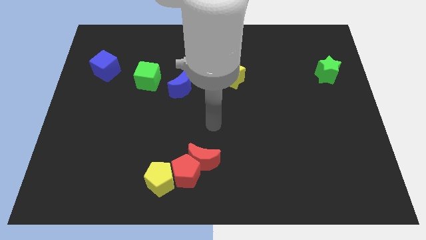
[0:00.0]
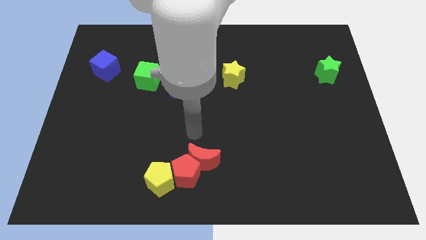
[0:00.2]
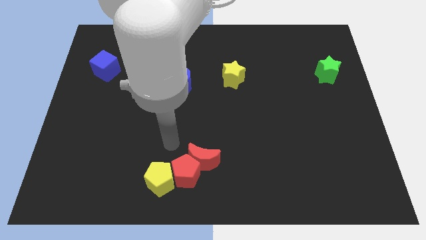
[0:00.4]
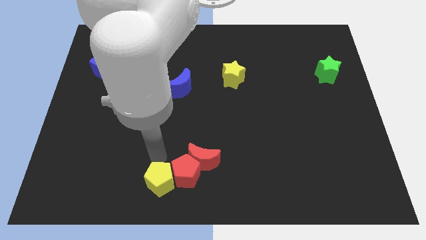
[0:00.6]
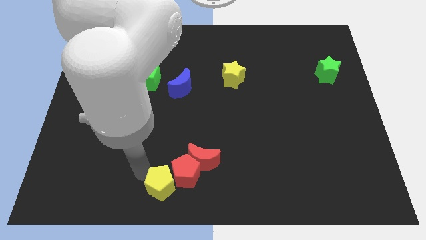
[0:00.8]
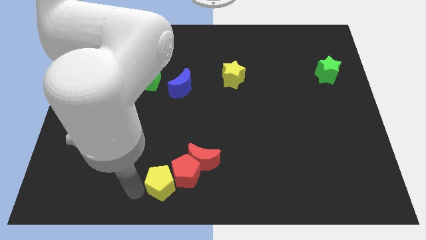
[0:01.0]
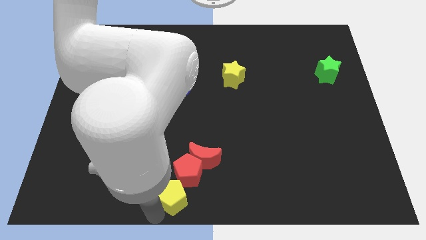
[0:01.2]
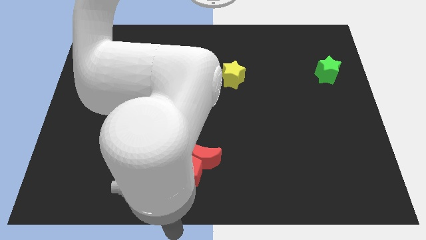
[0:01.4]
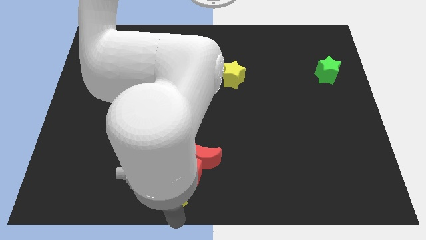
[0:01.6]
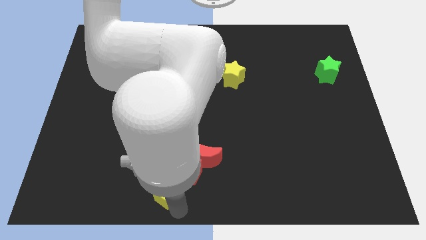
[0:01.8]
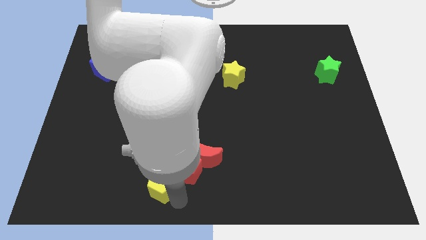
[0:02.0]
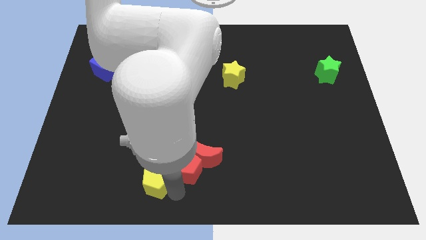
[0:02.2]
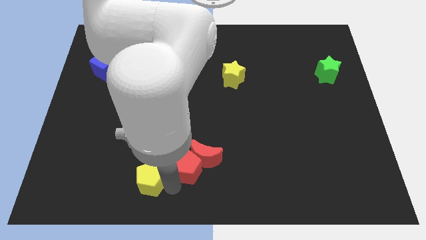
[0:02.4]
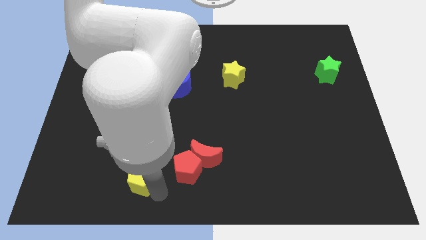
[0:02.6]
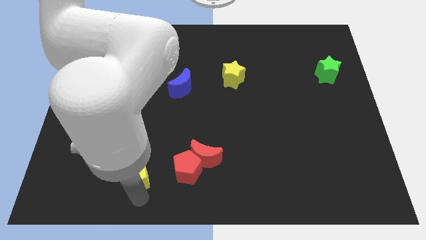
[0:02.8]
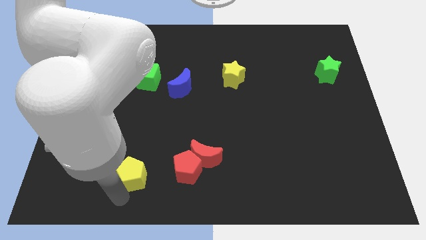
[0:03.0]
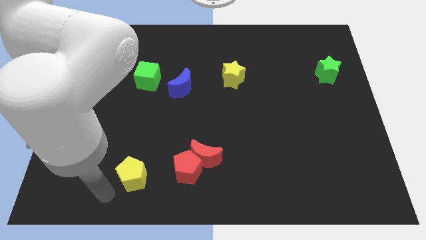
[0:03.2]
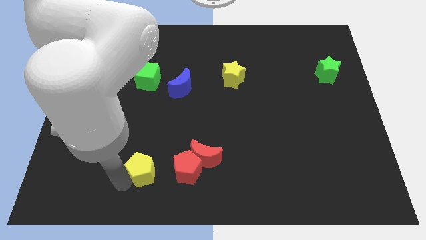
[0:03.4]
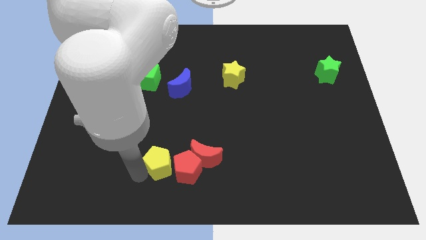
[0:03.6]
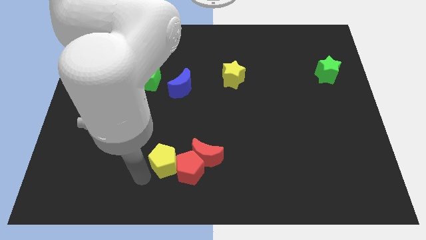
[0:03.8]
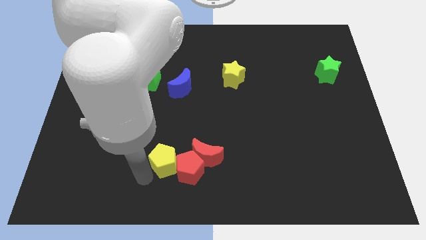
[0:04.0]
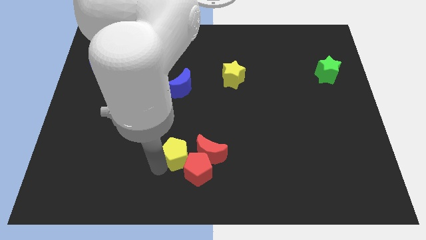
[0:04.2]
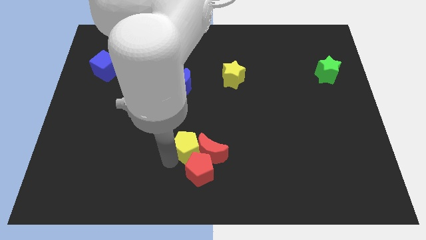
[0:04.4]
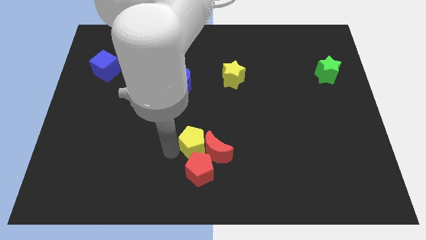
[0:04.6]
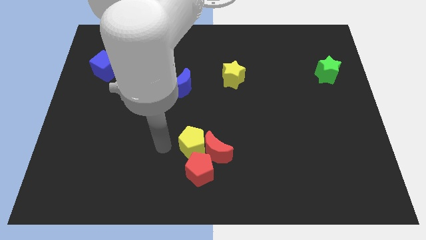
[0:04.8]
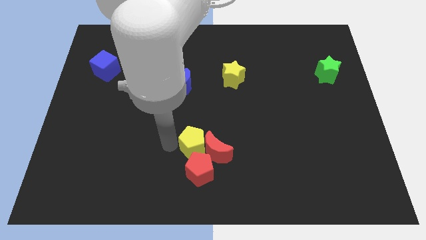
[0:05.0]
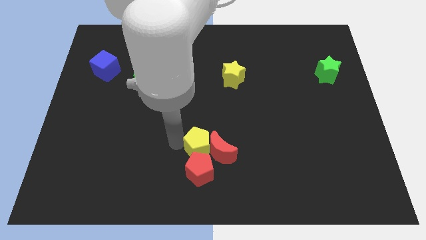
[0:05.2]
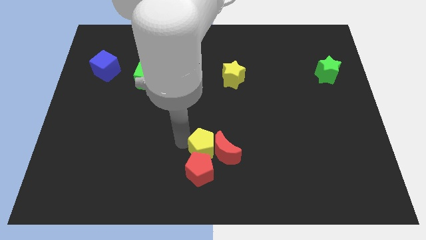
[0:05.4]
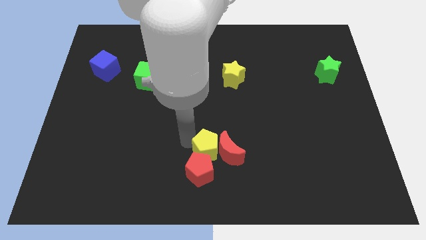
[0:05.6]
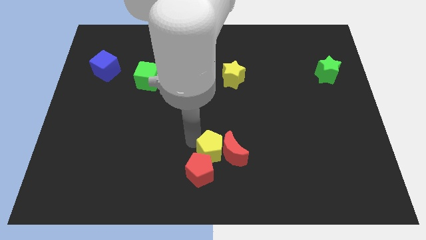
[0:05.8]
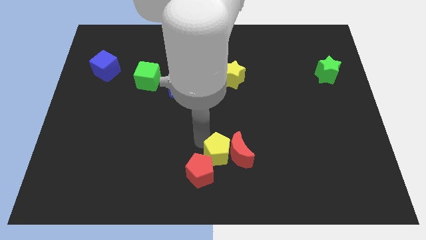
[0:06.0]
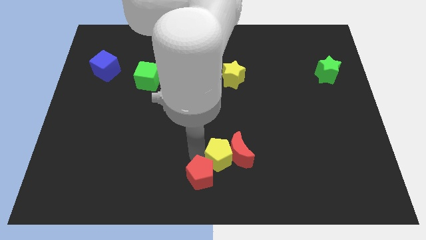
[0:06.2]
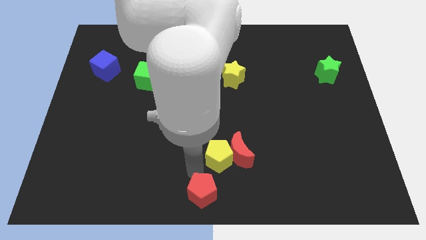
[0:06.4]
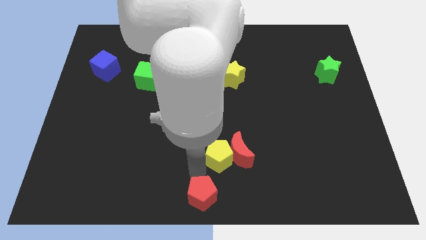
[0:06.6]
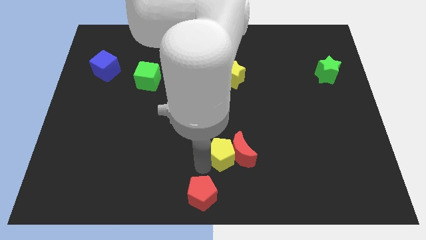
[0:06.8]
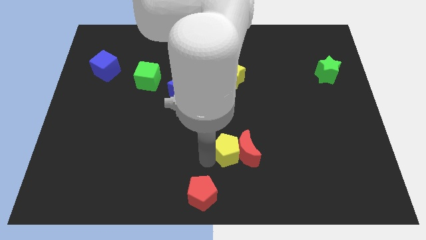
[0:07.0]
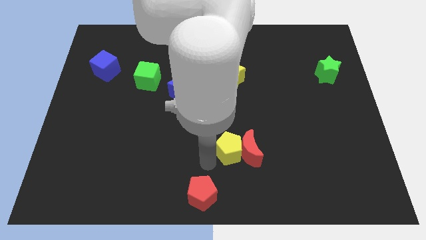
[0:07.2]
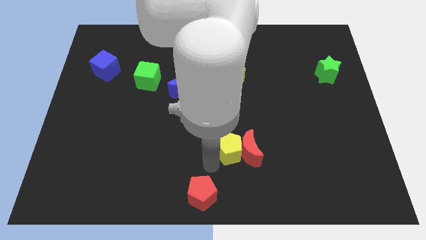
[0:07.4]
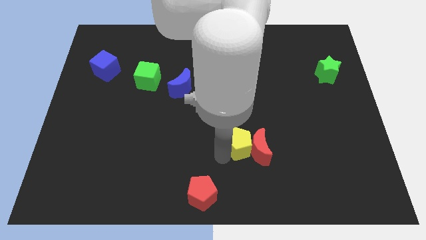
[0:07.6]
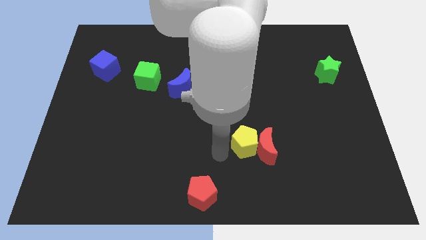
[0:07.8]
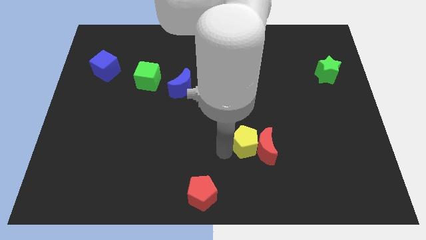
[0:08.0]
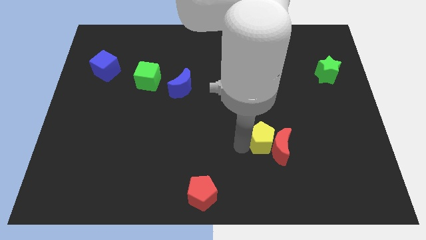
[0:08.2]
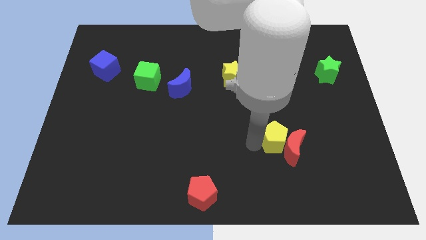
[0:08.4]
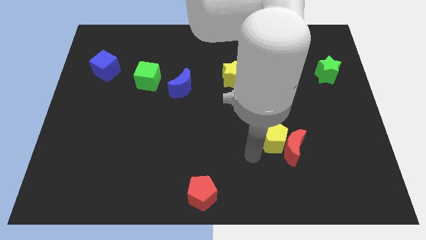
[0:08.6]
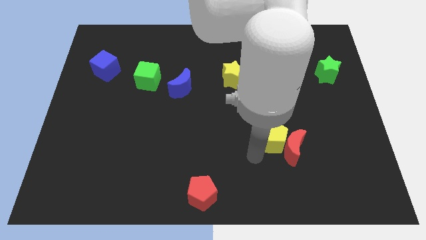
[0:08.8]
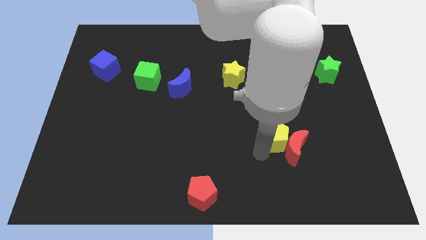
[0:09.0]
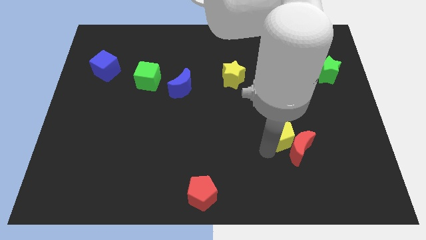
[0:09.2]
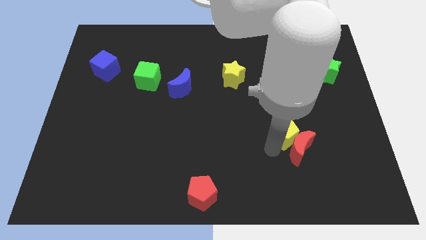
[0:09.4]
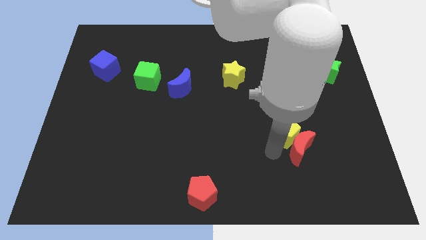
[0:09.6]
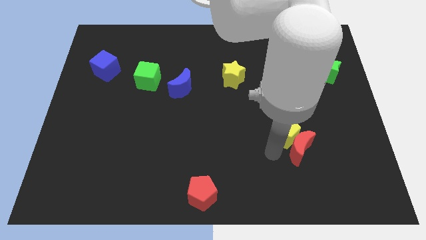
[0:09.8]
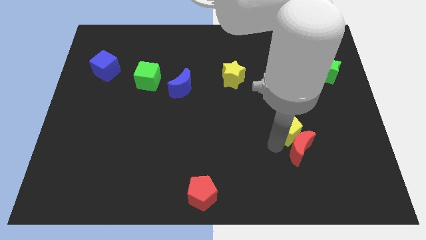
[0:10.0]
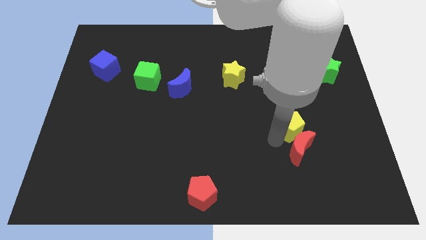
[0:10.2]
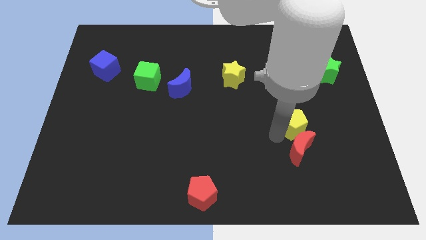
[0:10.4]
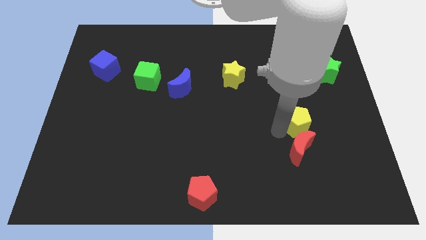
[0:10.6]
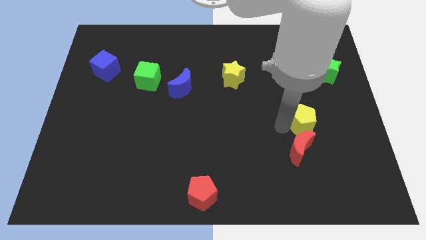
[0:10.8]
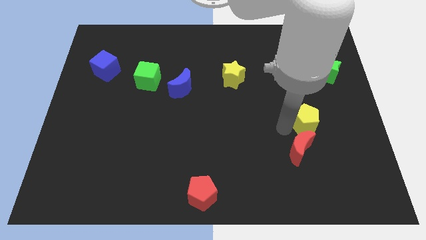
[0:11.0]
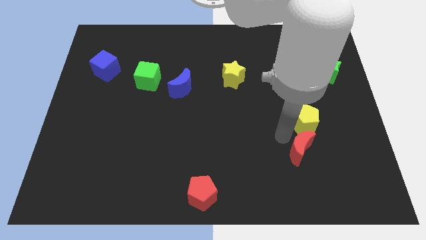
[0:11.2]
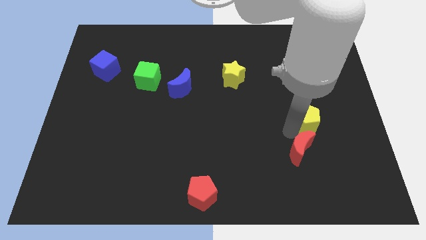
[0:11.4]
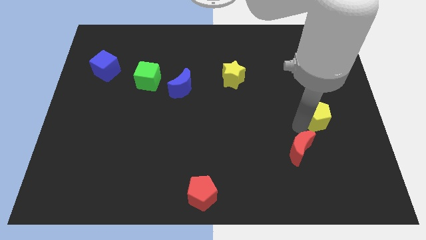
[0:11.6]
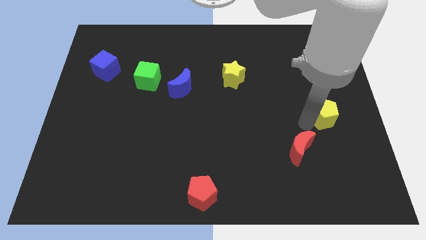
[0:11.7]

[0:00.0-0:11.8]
move the yellow pentagon to the bottom side of the green star

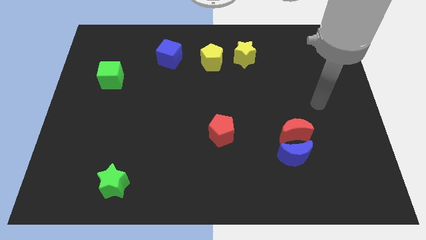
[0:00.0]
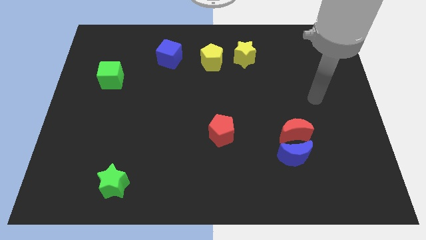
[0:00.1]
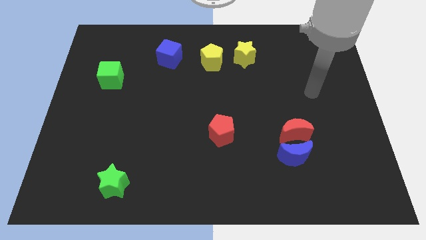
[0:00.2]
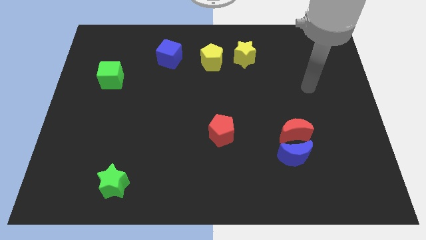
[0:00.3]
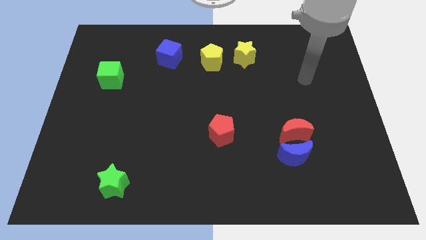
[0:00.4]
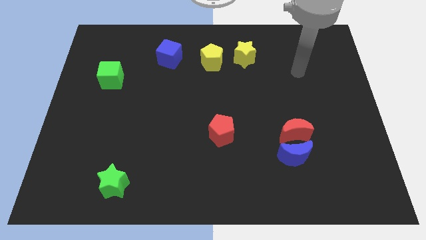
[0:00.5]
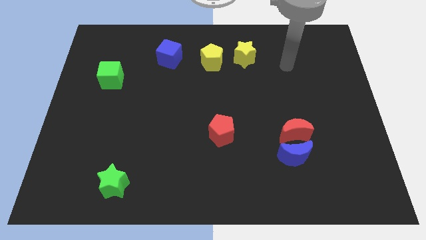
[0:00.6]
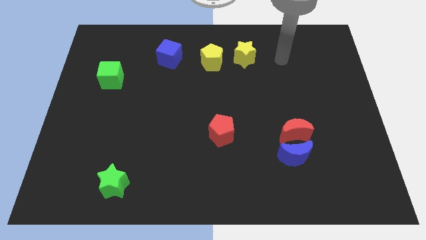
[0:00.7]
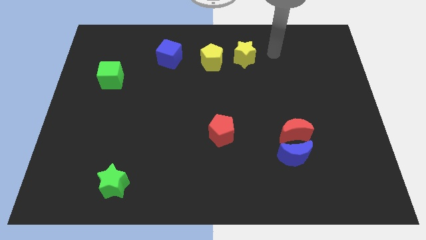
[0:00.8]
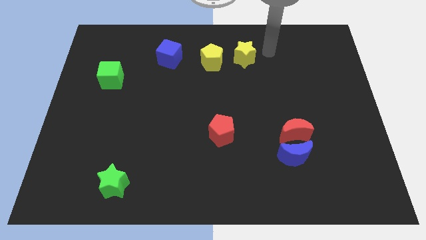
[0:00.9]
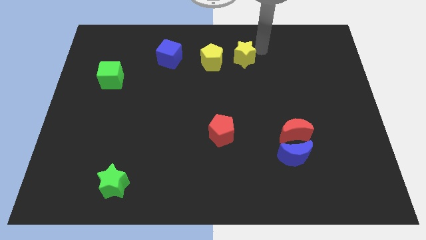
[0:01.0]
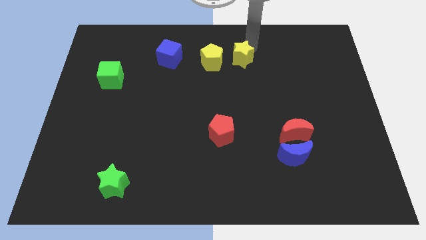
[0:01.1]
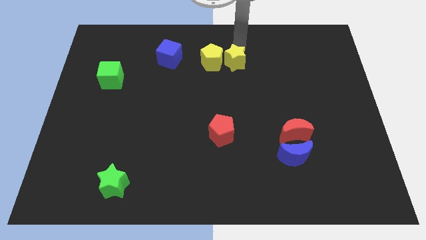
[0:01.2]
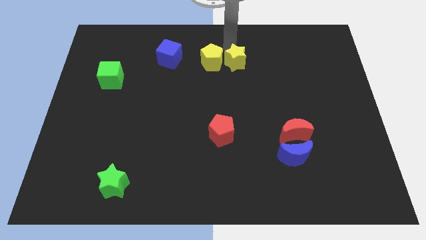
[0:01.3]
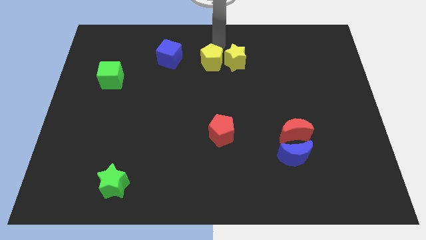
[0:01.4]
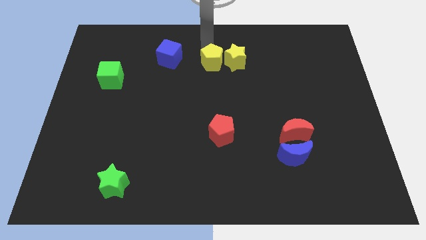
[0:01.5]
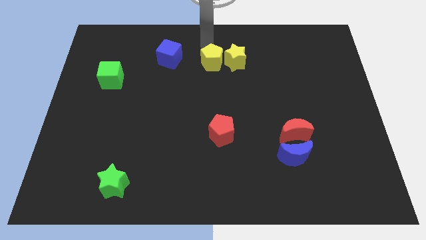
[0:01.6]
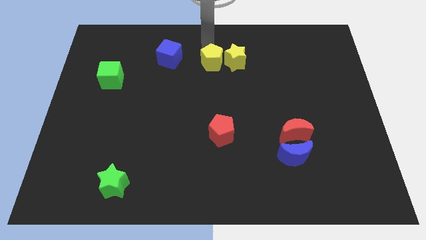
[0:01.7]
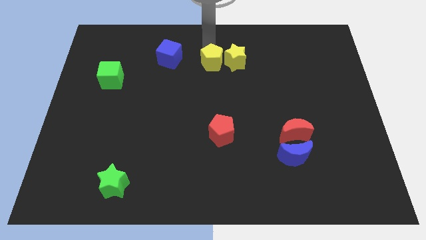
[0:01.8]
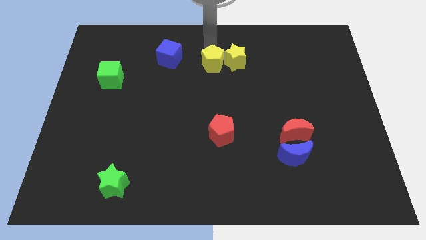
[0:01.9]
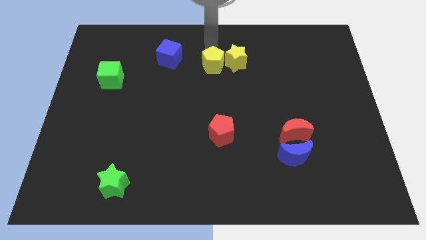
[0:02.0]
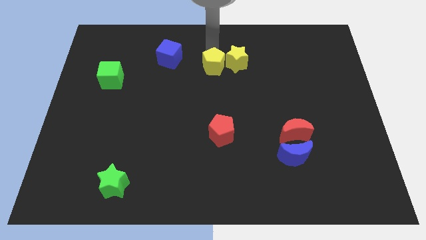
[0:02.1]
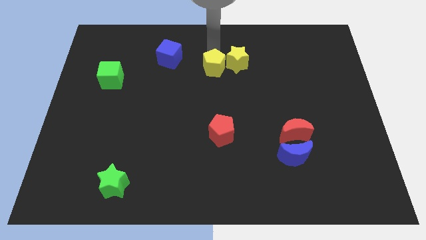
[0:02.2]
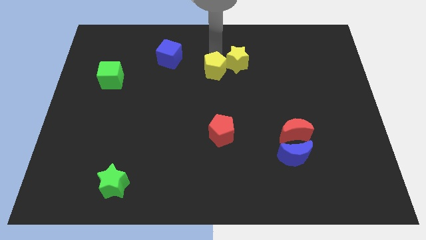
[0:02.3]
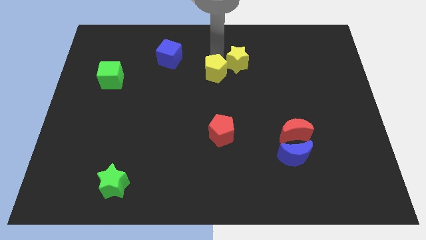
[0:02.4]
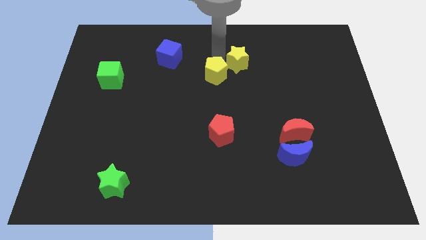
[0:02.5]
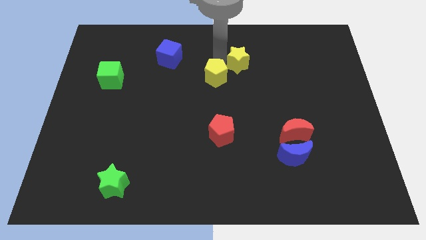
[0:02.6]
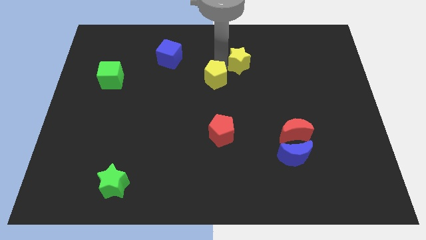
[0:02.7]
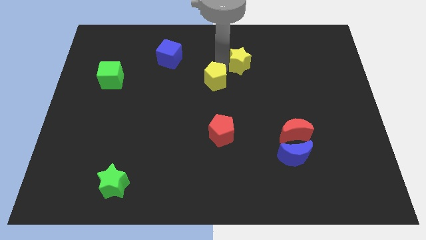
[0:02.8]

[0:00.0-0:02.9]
move the yellow pentagon to the top side of the red pentagon
